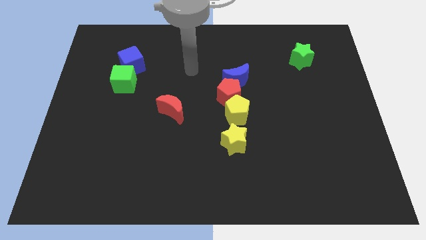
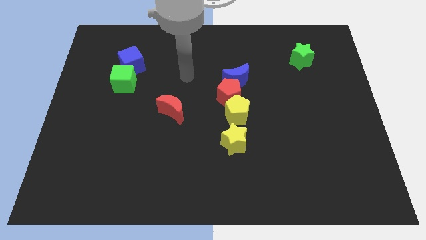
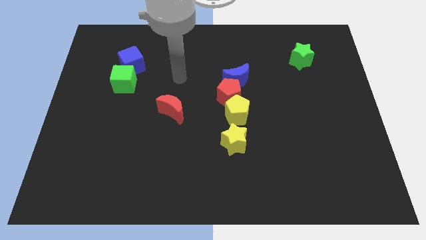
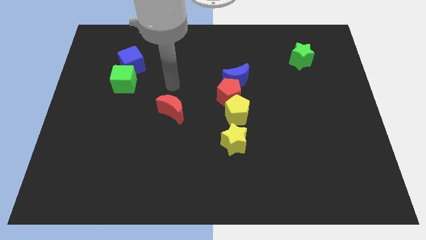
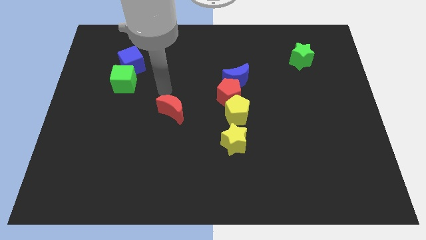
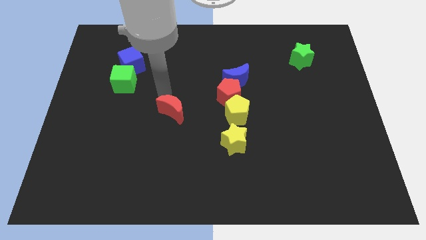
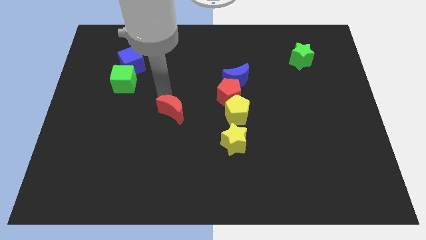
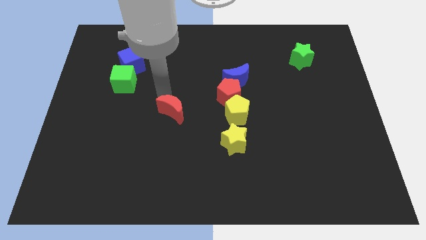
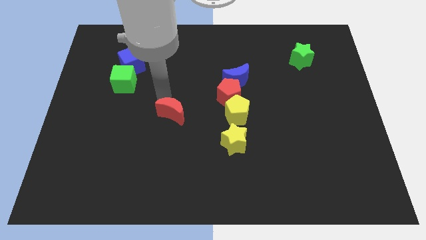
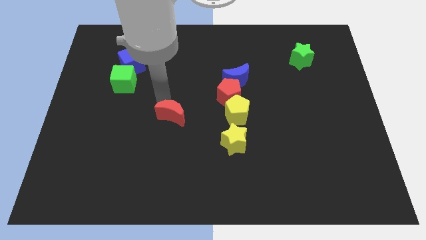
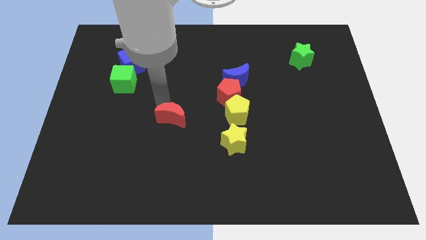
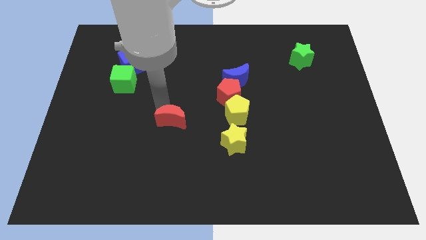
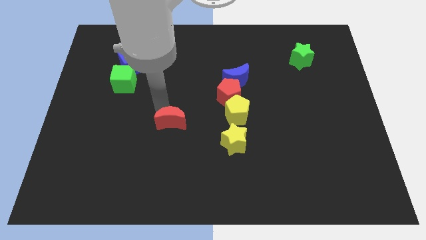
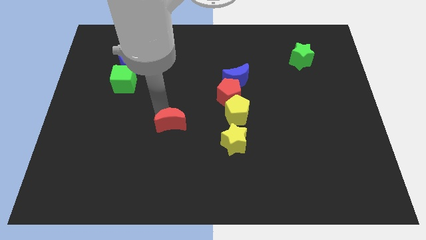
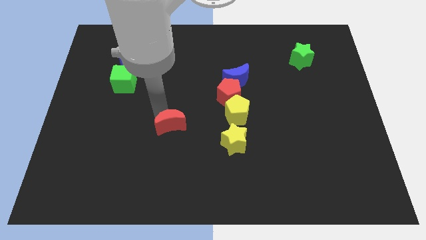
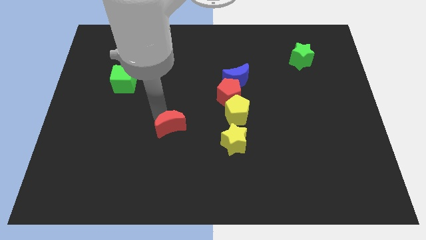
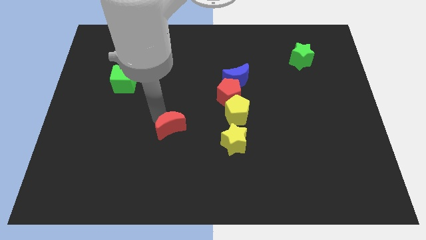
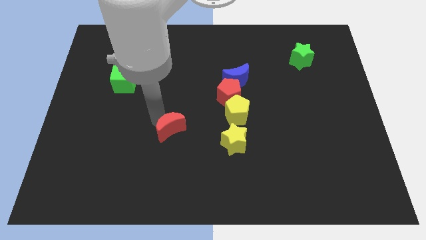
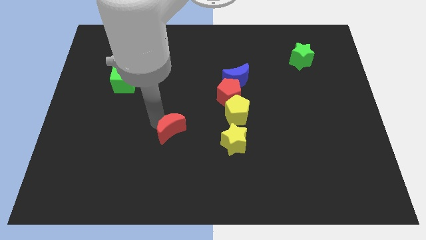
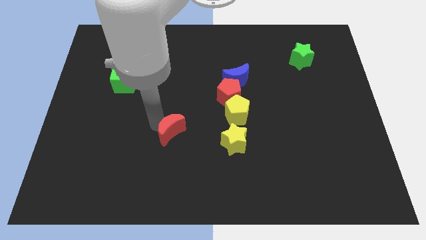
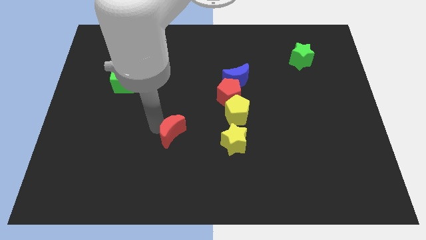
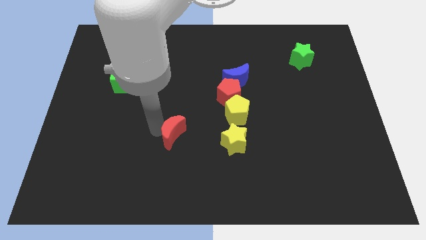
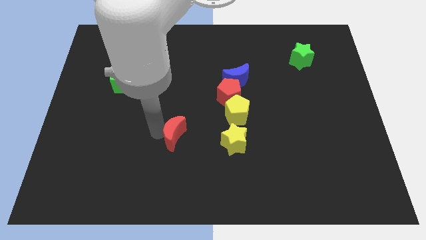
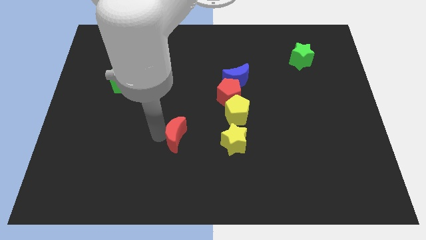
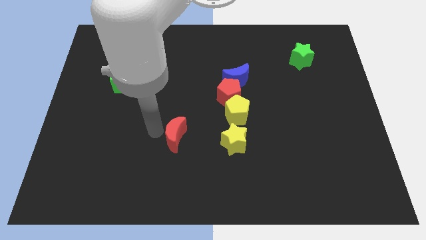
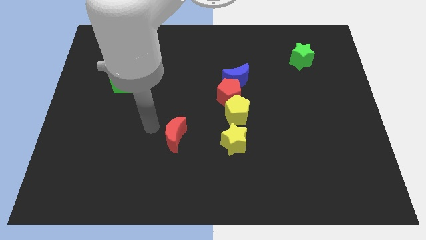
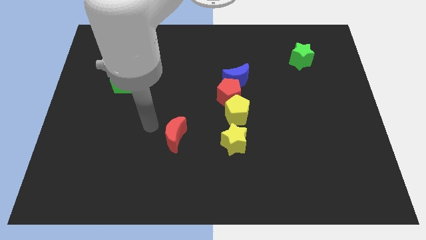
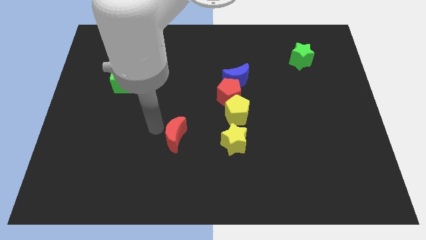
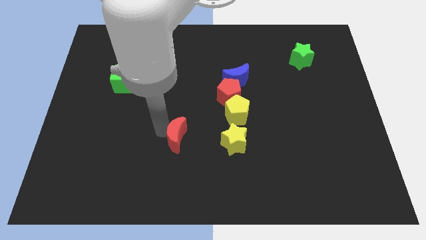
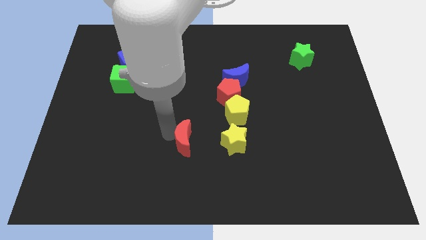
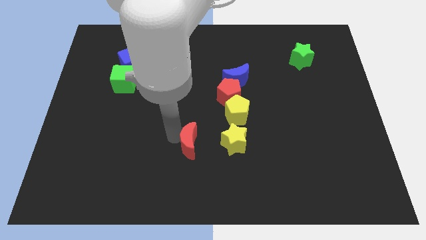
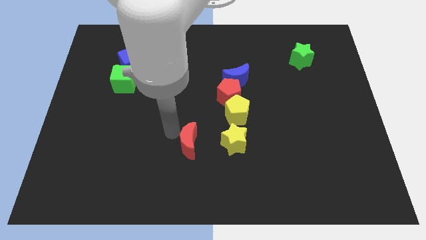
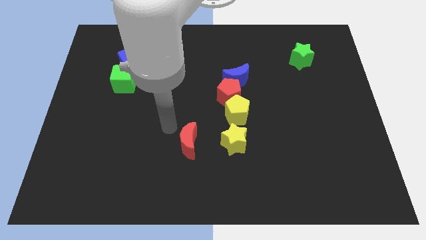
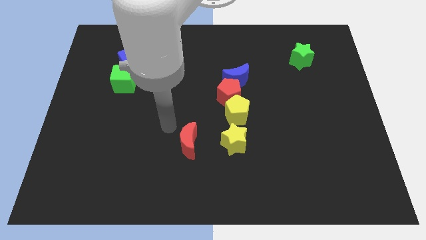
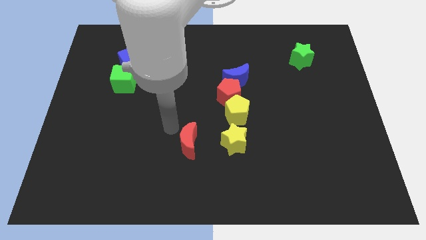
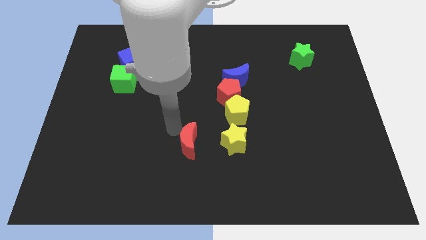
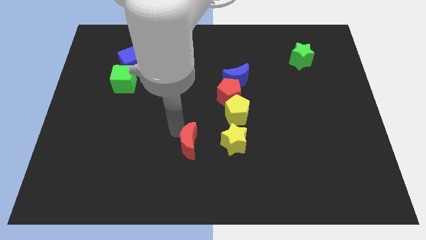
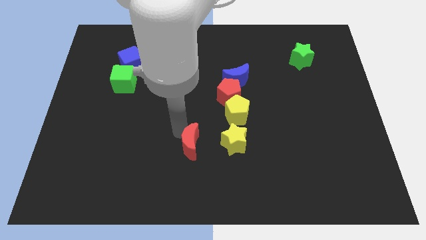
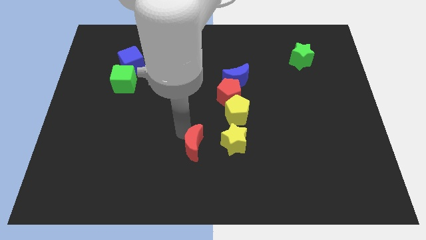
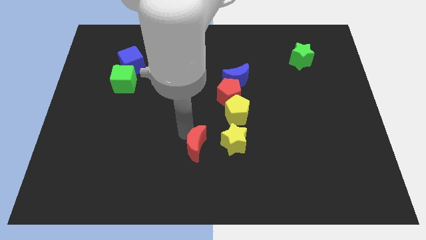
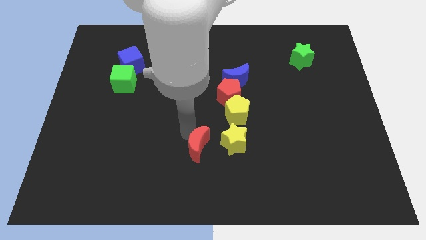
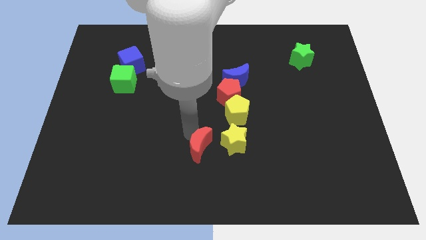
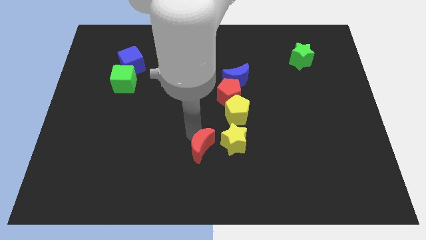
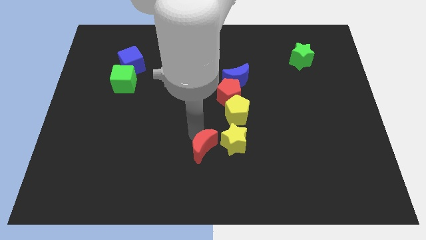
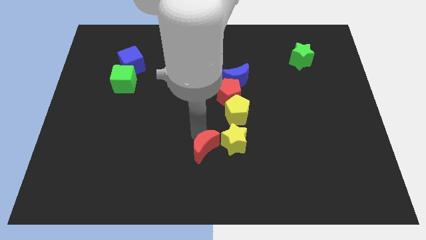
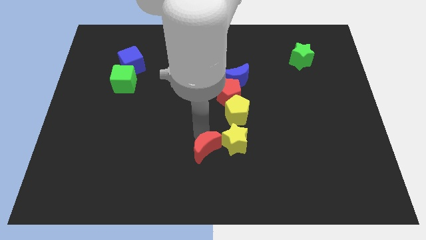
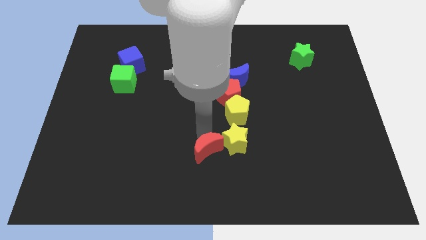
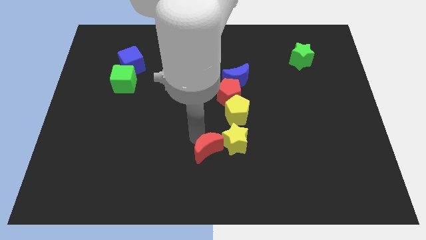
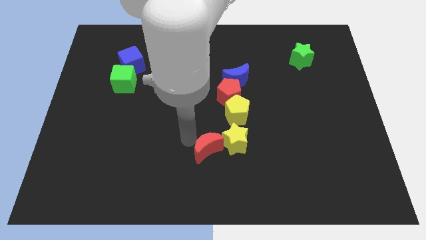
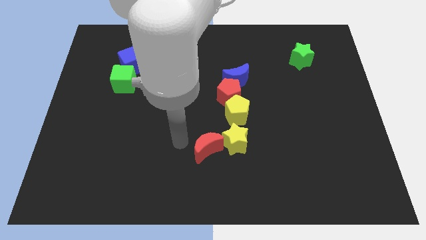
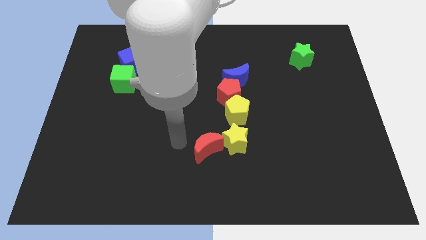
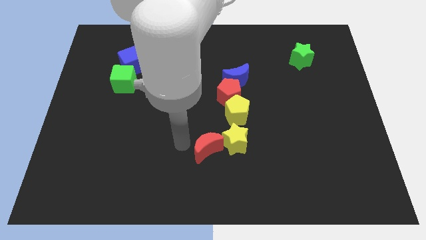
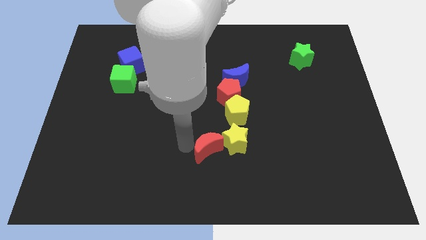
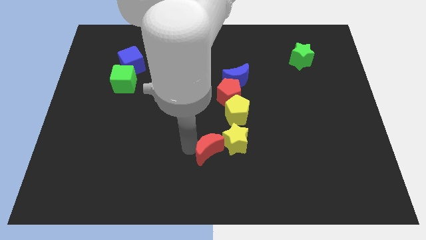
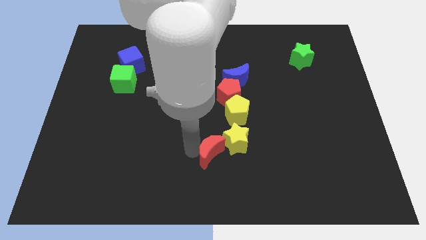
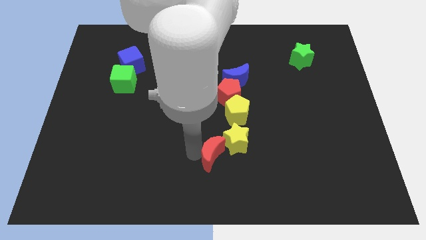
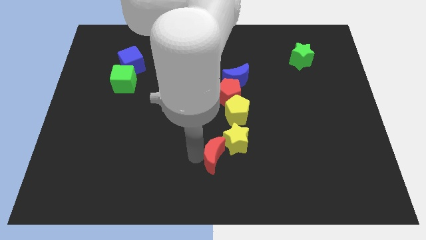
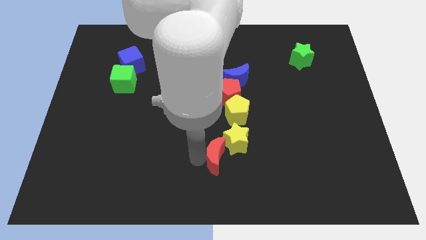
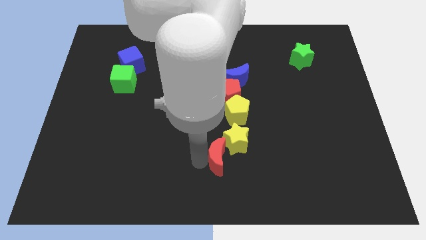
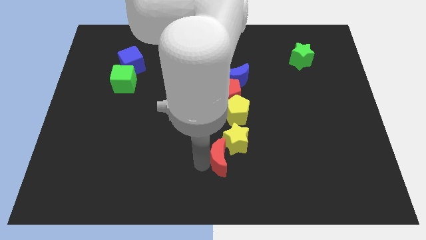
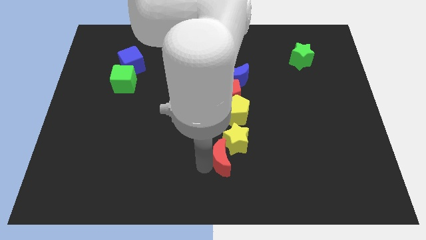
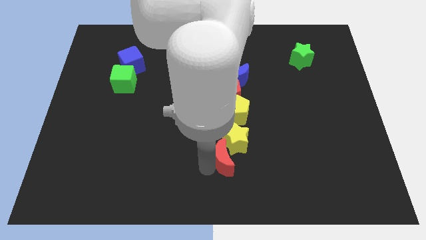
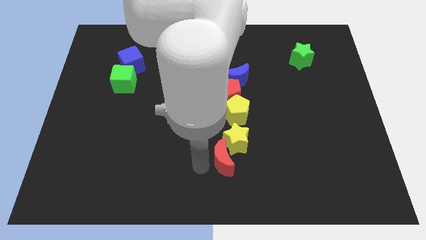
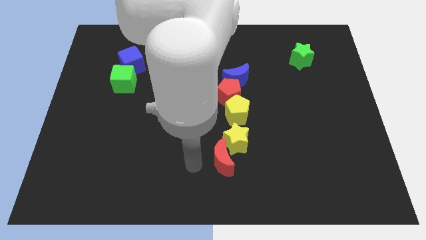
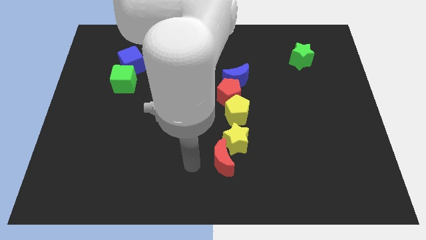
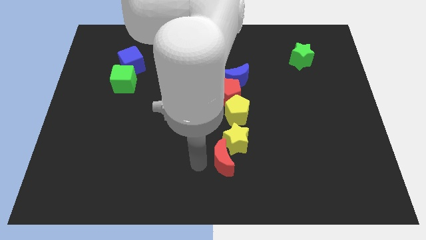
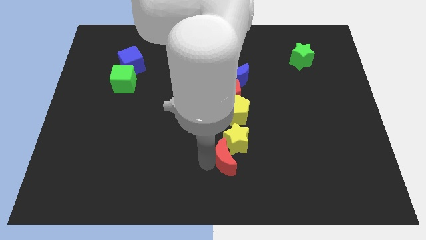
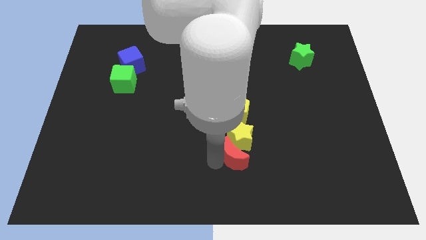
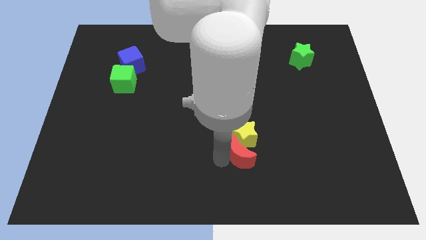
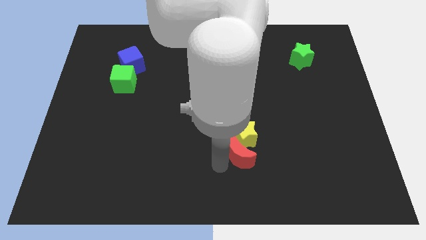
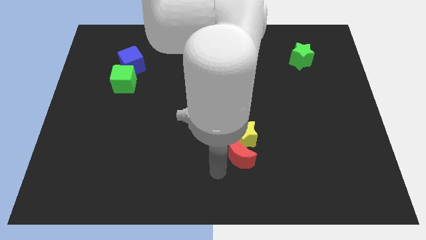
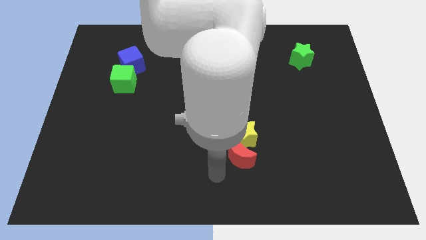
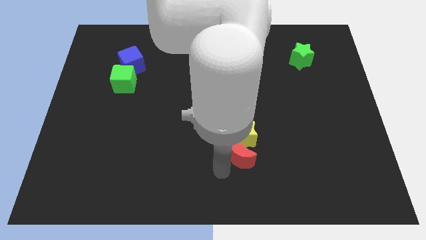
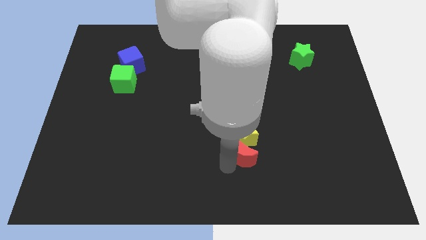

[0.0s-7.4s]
slide the red moon to the right a little

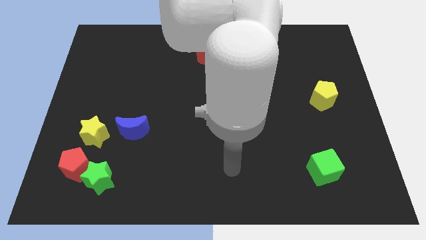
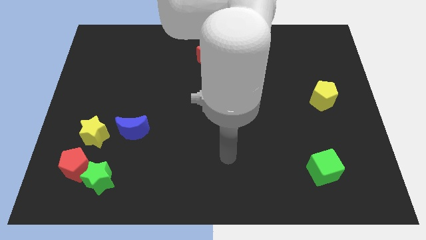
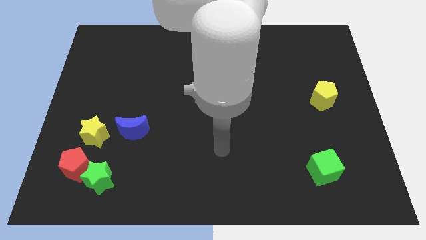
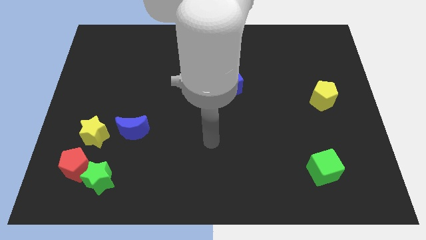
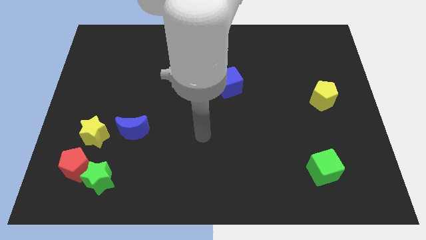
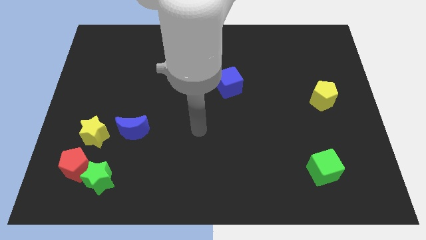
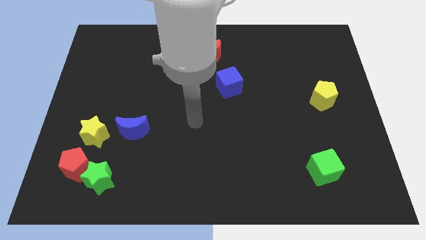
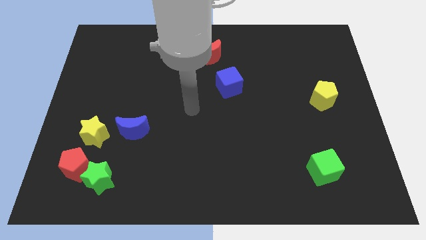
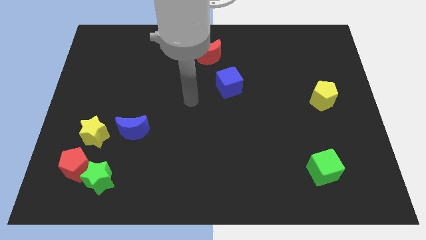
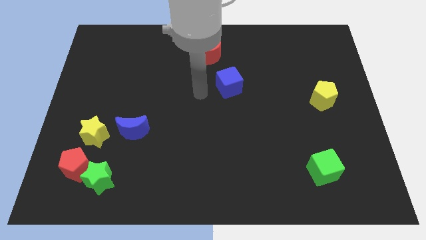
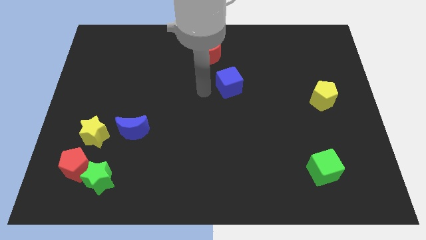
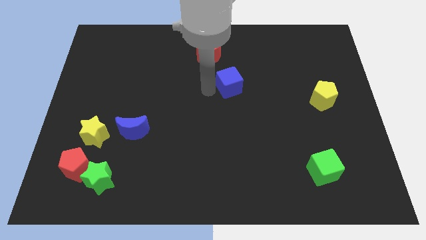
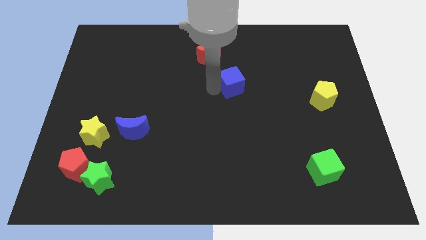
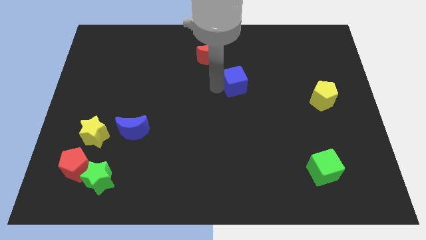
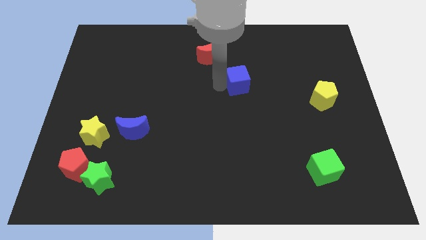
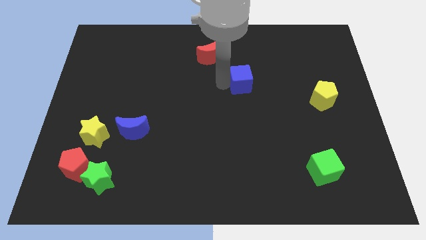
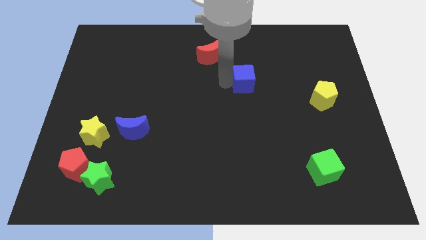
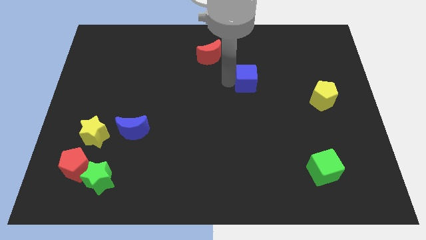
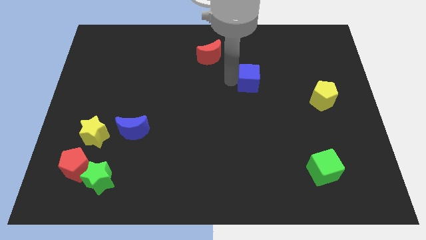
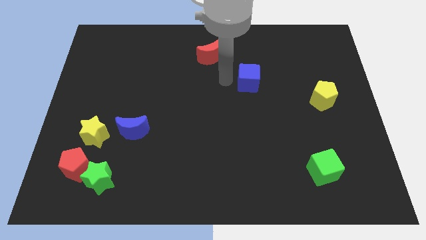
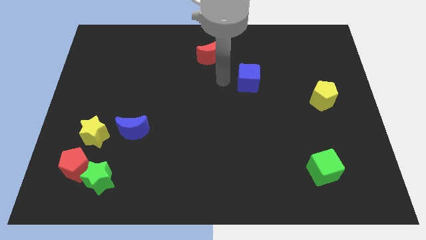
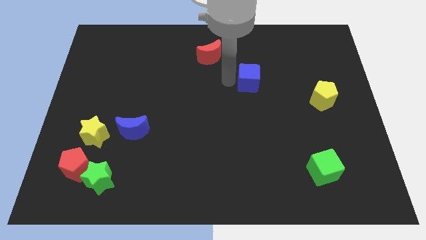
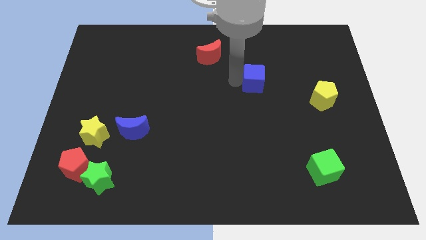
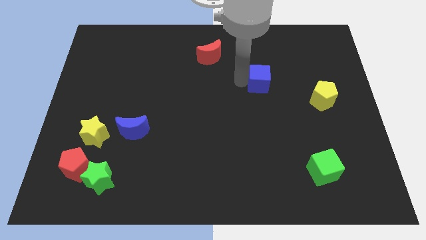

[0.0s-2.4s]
move the blue cube to the right somewhat
